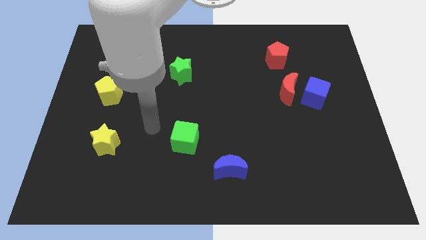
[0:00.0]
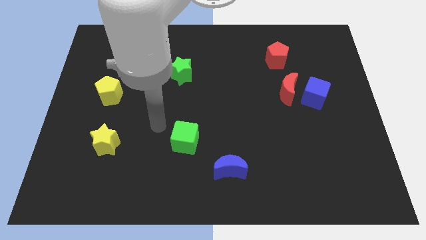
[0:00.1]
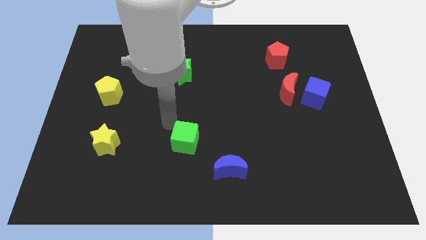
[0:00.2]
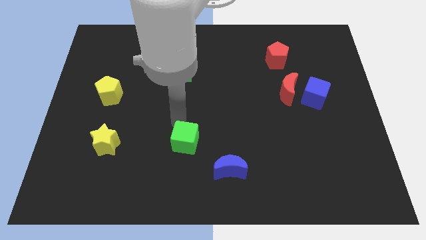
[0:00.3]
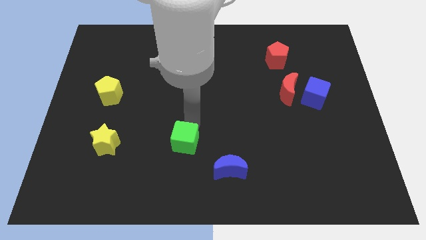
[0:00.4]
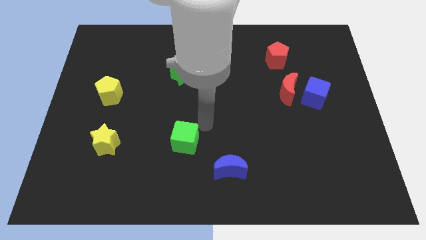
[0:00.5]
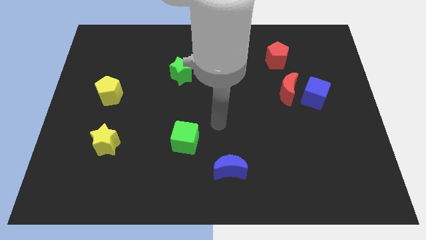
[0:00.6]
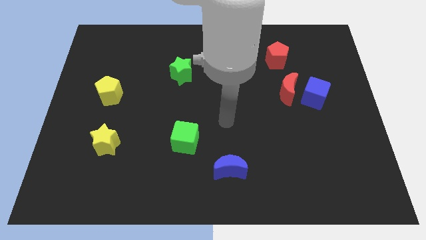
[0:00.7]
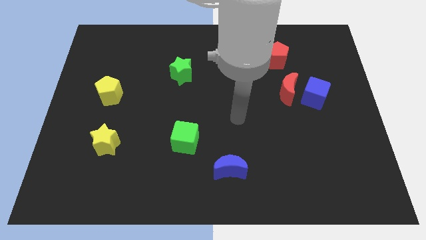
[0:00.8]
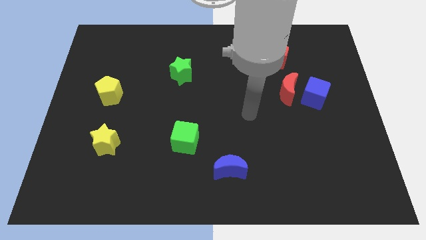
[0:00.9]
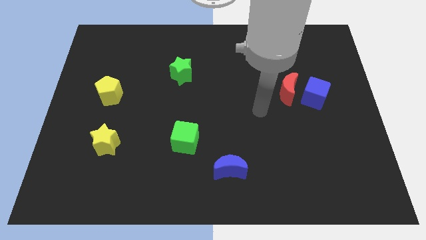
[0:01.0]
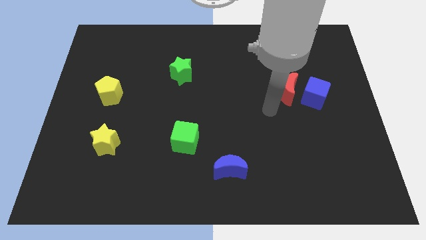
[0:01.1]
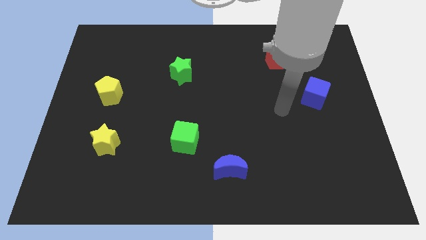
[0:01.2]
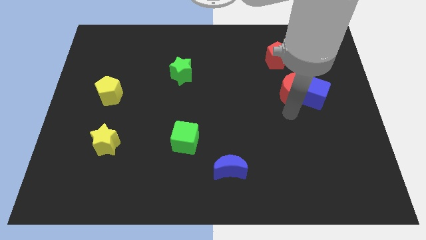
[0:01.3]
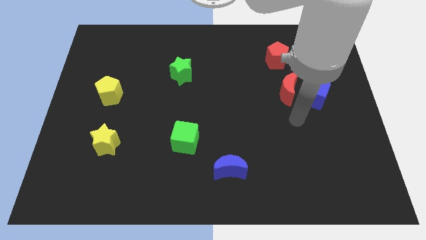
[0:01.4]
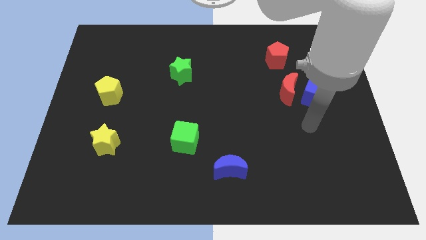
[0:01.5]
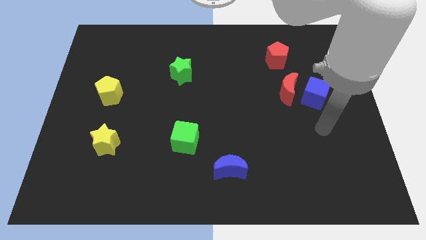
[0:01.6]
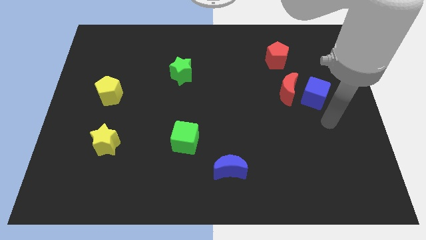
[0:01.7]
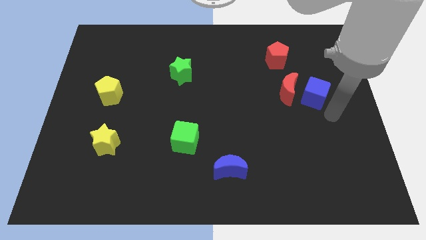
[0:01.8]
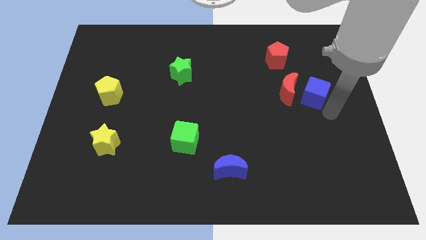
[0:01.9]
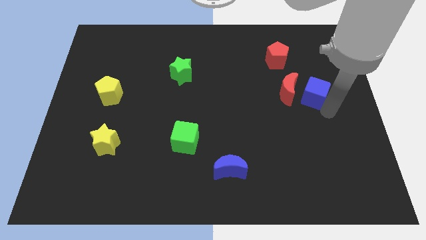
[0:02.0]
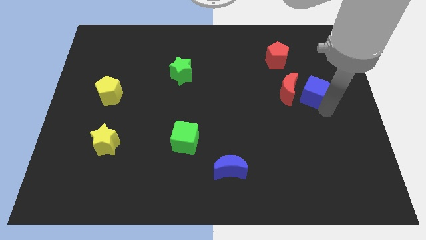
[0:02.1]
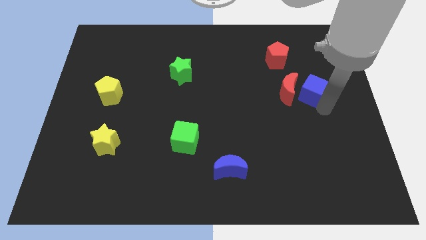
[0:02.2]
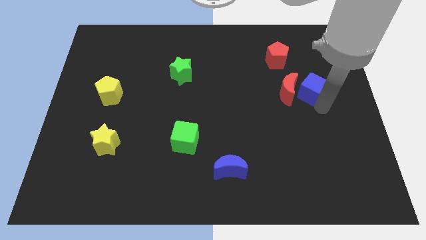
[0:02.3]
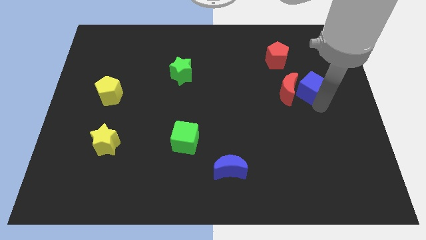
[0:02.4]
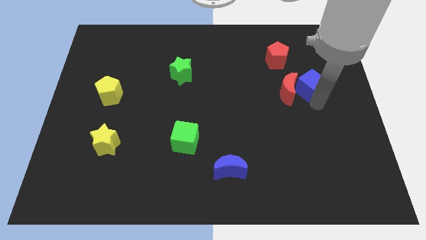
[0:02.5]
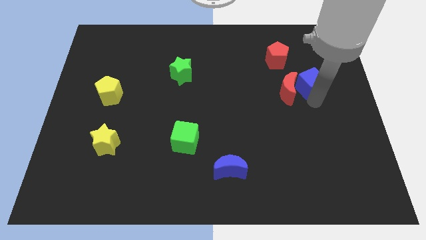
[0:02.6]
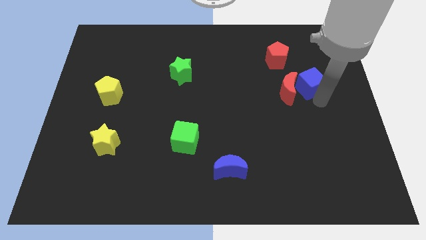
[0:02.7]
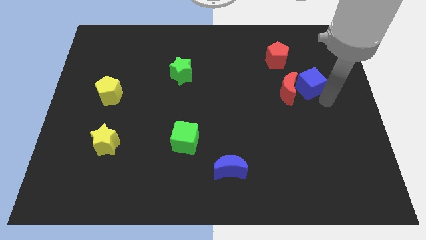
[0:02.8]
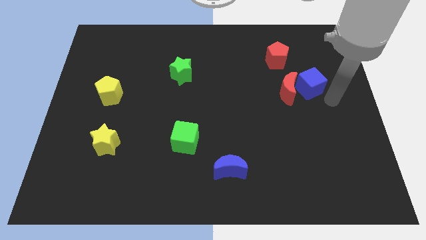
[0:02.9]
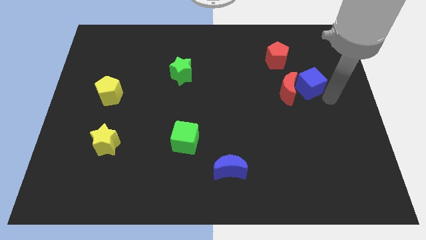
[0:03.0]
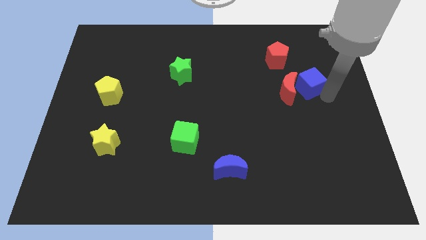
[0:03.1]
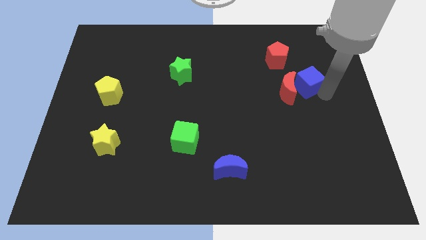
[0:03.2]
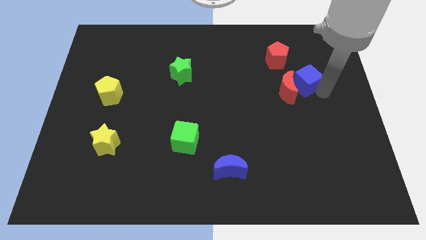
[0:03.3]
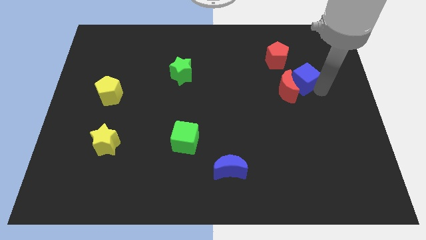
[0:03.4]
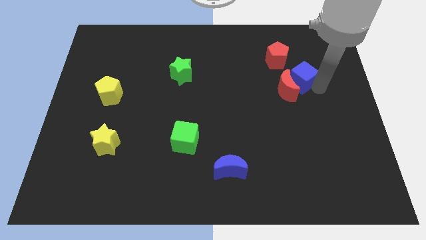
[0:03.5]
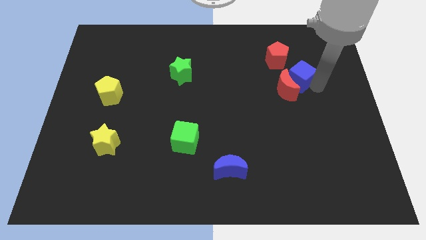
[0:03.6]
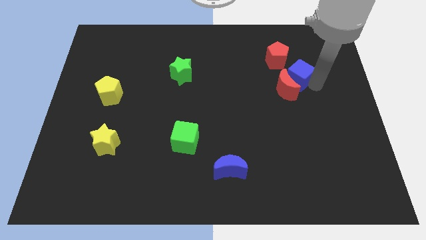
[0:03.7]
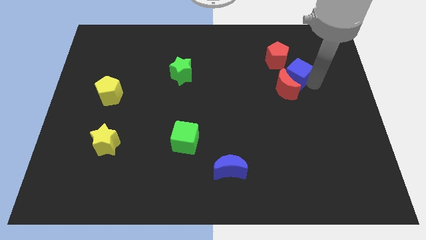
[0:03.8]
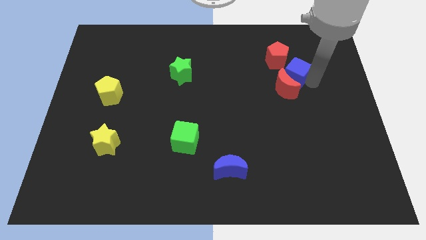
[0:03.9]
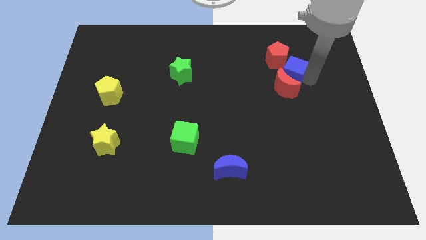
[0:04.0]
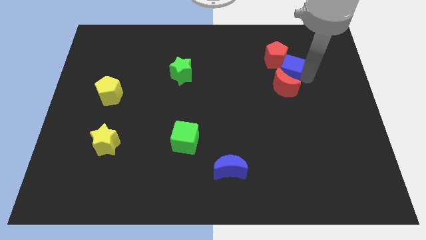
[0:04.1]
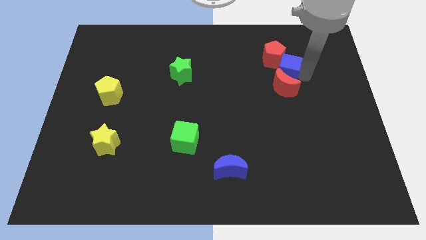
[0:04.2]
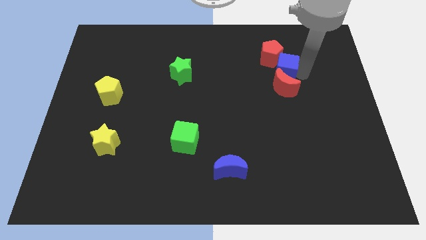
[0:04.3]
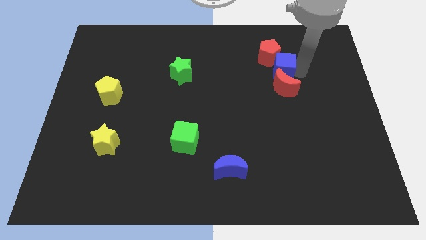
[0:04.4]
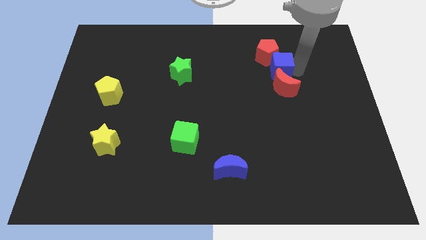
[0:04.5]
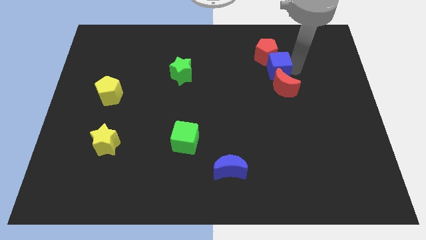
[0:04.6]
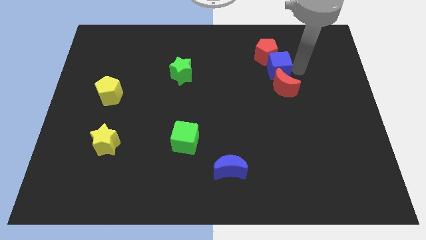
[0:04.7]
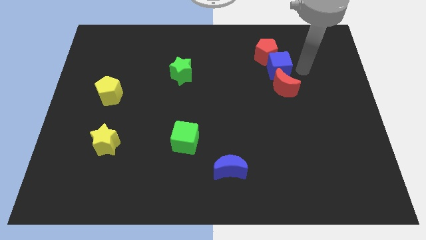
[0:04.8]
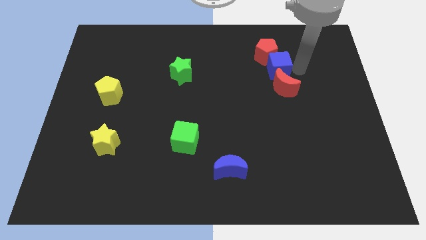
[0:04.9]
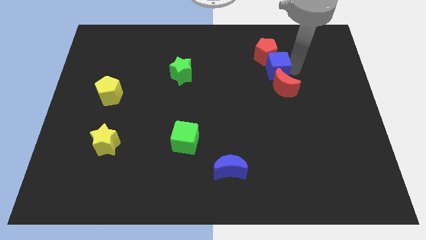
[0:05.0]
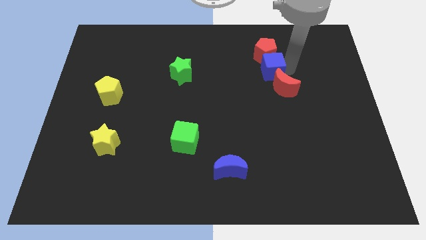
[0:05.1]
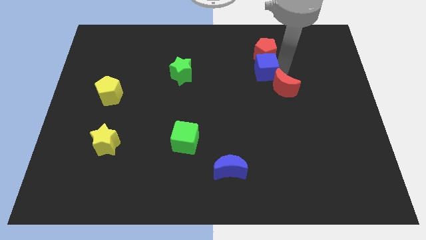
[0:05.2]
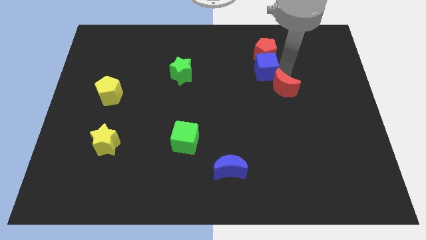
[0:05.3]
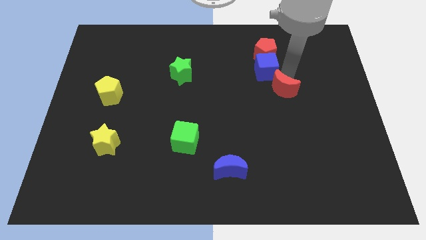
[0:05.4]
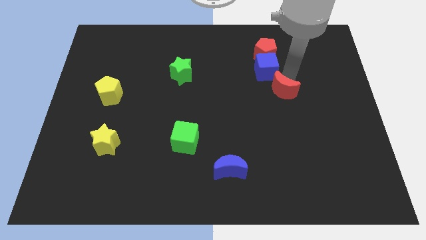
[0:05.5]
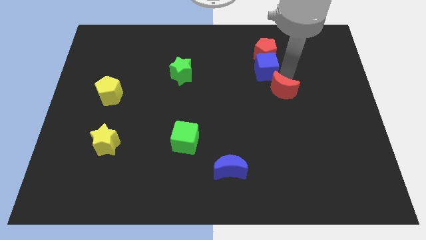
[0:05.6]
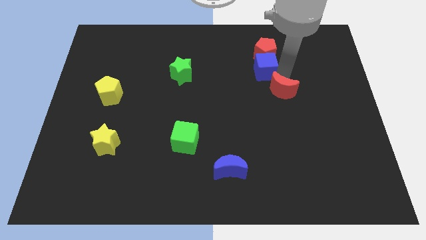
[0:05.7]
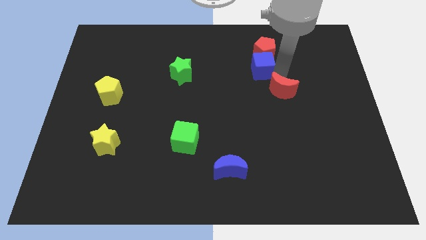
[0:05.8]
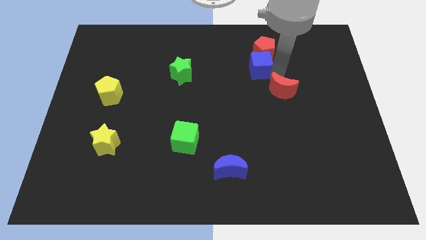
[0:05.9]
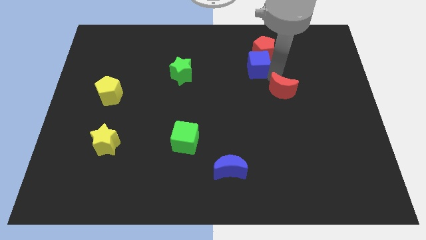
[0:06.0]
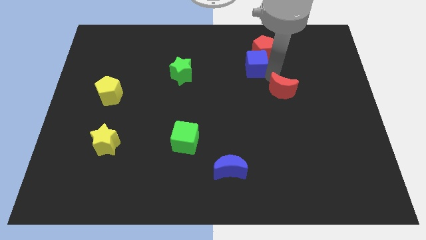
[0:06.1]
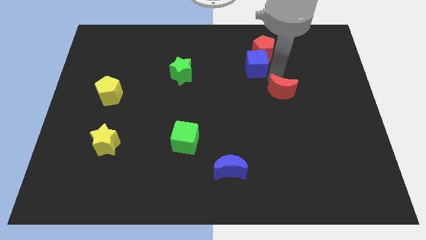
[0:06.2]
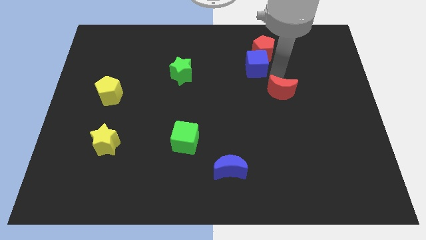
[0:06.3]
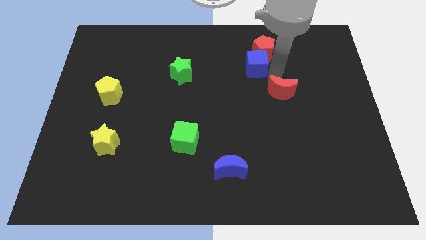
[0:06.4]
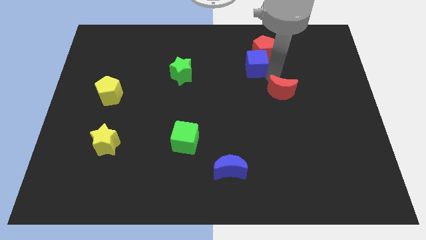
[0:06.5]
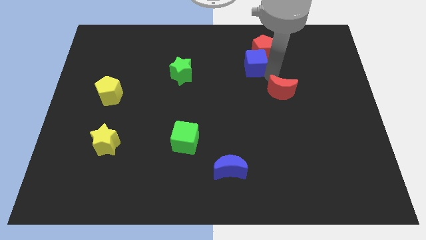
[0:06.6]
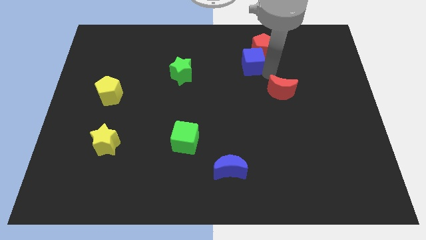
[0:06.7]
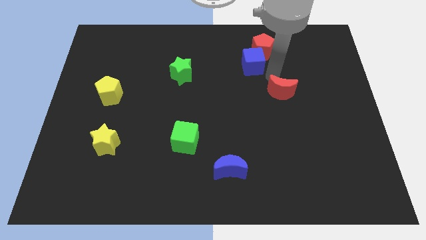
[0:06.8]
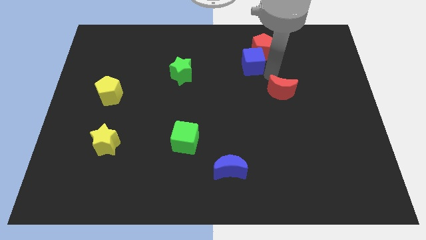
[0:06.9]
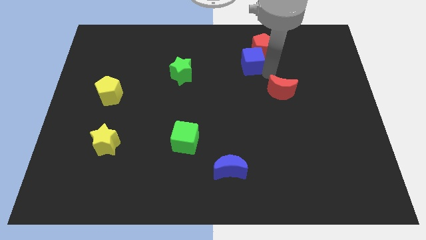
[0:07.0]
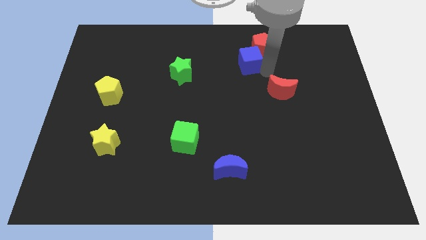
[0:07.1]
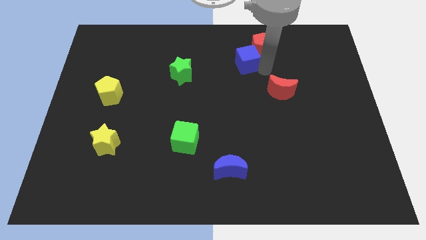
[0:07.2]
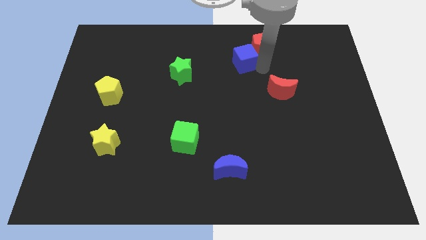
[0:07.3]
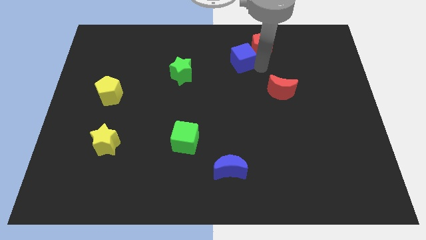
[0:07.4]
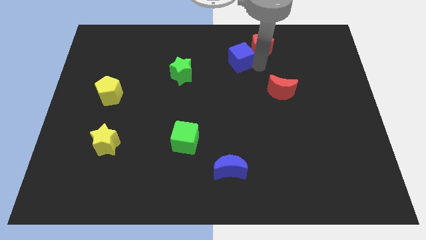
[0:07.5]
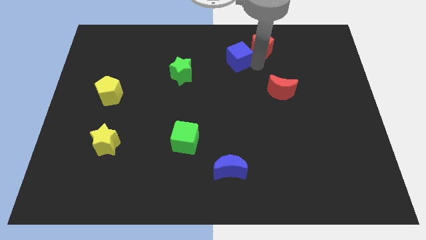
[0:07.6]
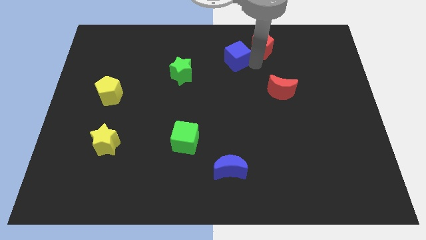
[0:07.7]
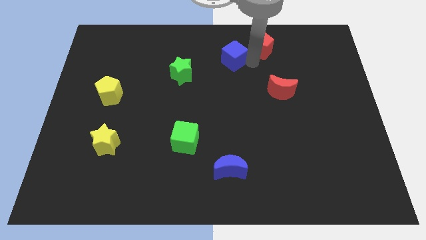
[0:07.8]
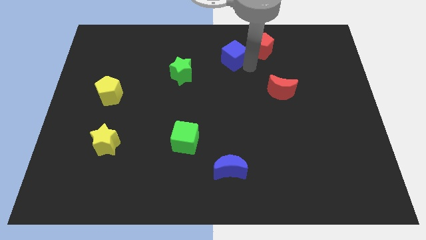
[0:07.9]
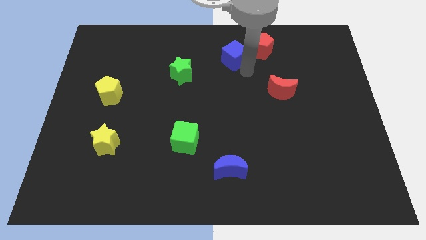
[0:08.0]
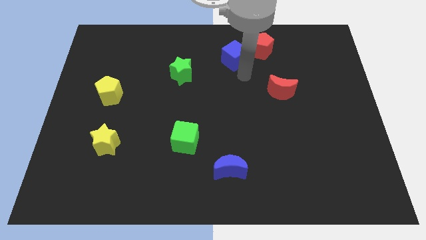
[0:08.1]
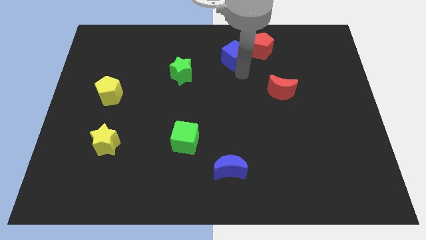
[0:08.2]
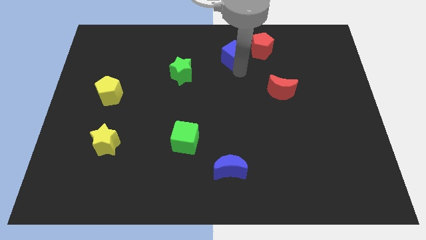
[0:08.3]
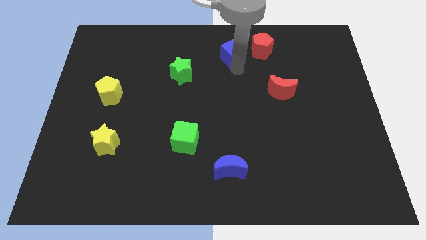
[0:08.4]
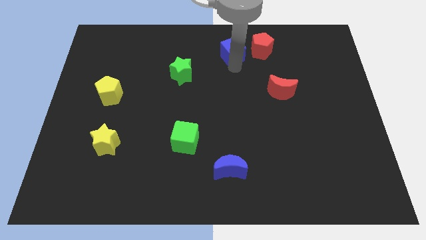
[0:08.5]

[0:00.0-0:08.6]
move the blue cube to the towards your base
